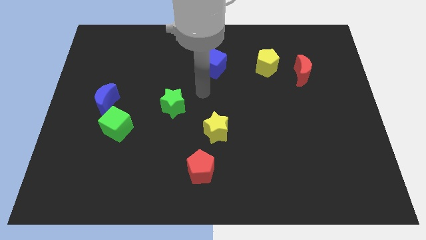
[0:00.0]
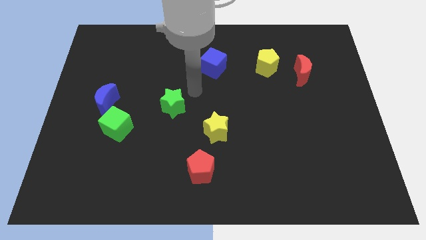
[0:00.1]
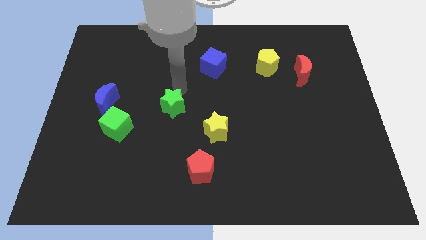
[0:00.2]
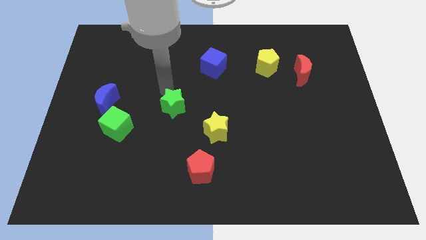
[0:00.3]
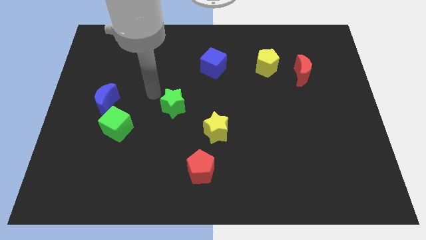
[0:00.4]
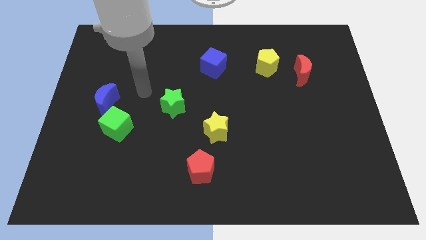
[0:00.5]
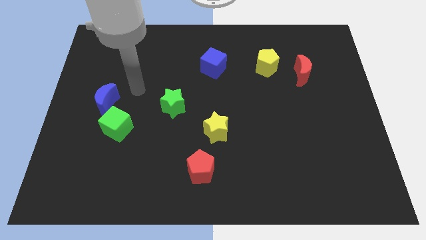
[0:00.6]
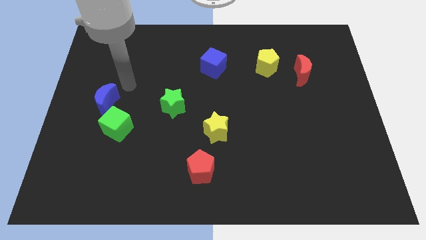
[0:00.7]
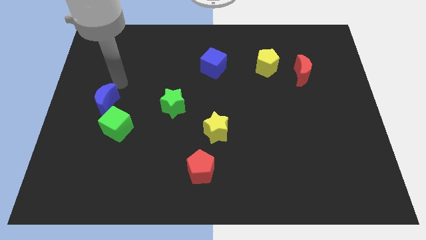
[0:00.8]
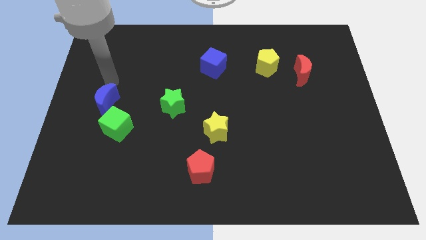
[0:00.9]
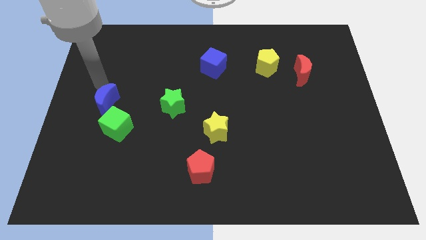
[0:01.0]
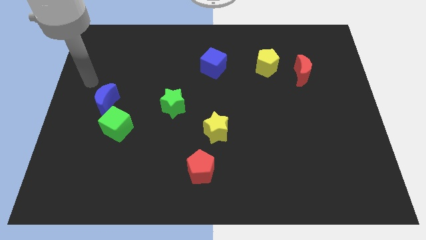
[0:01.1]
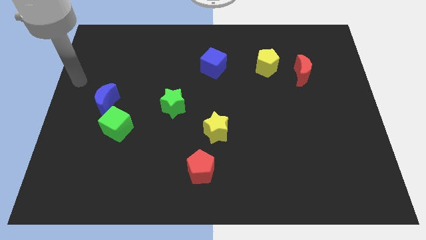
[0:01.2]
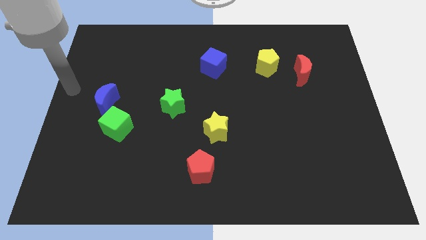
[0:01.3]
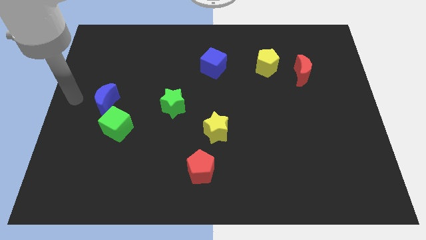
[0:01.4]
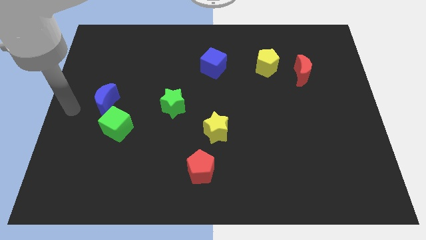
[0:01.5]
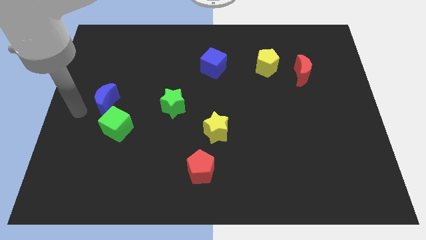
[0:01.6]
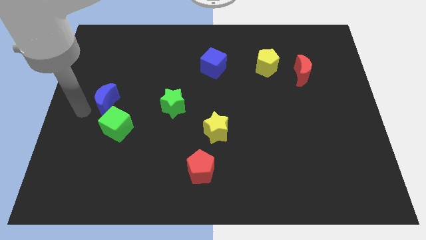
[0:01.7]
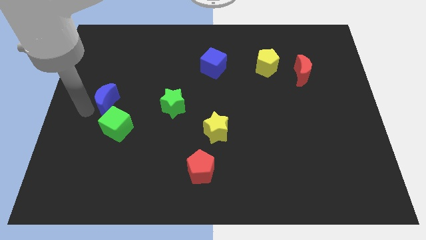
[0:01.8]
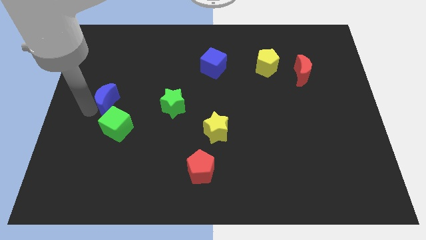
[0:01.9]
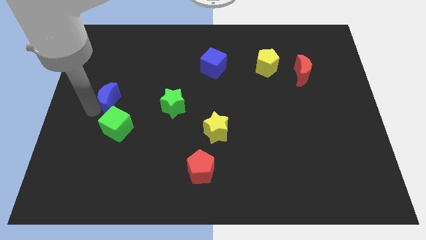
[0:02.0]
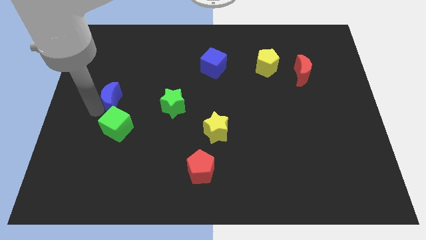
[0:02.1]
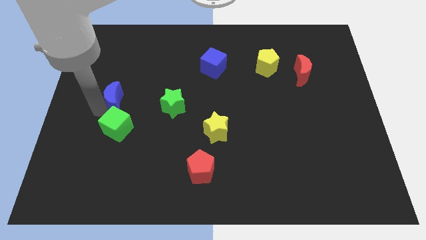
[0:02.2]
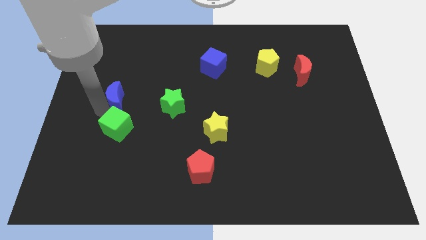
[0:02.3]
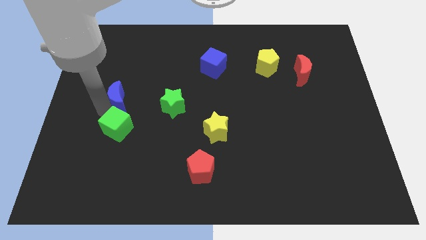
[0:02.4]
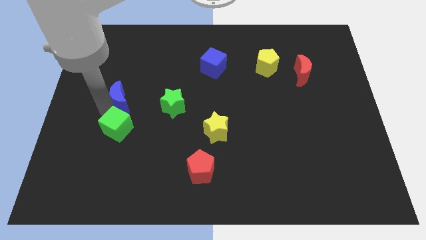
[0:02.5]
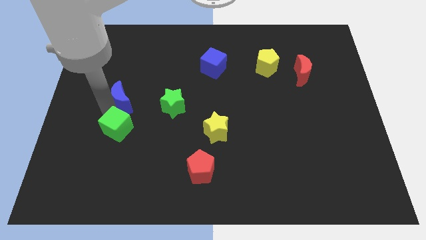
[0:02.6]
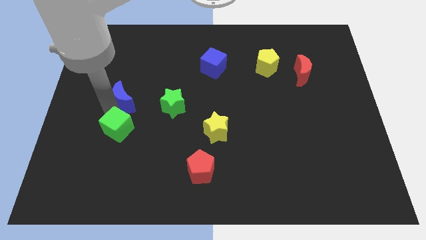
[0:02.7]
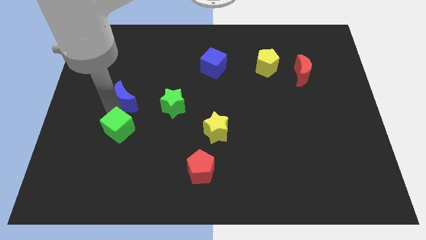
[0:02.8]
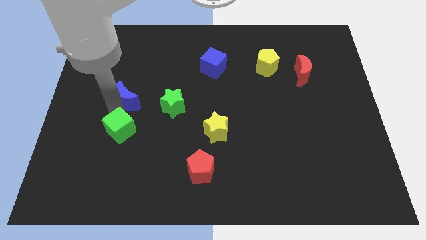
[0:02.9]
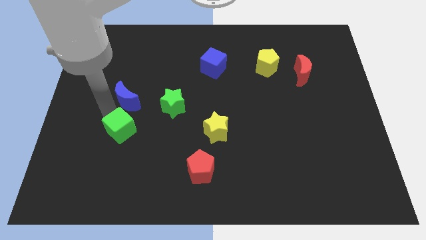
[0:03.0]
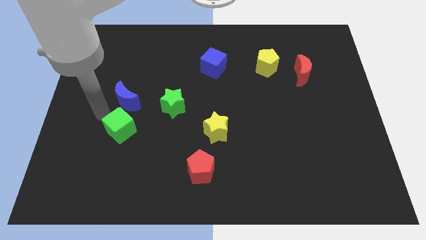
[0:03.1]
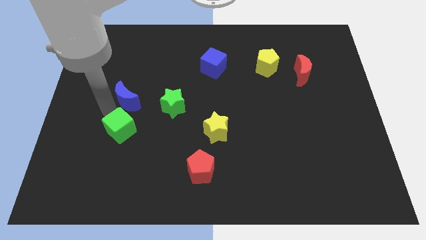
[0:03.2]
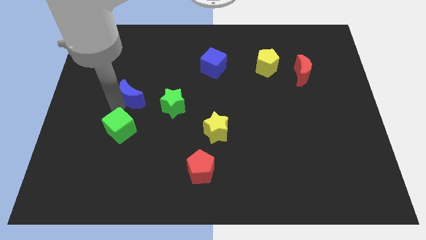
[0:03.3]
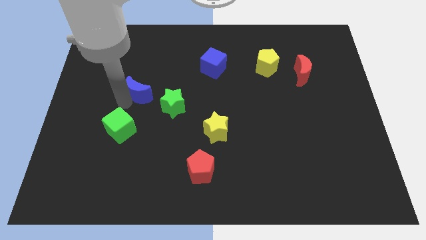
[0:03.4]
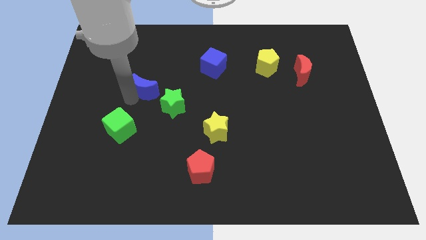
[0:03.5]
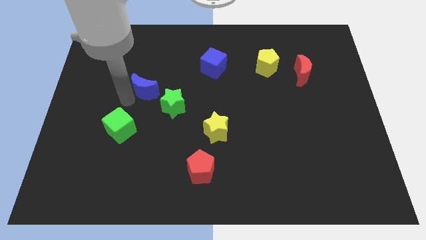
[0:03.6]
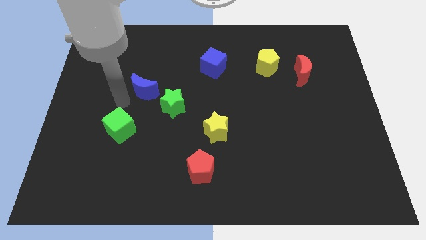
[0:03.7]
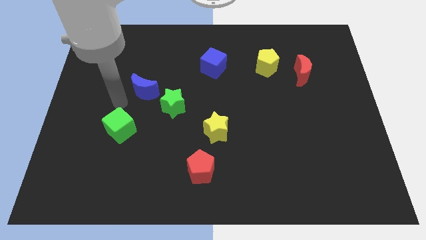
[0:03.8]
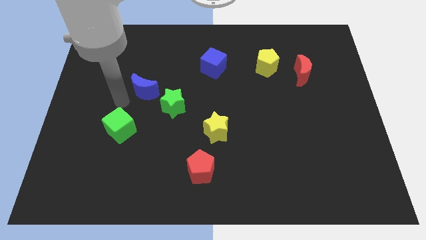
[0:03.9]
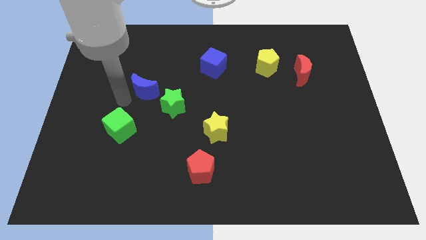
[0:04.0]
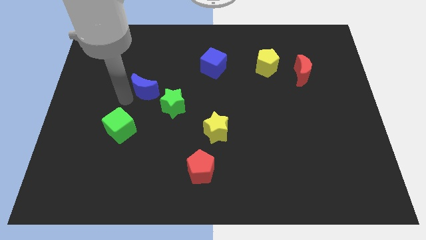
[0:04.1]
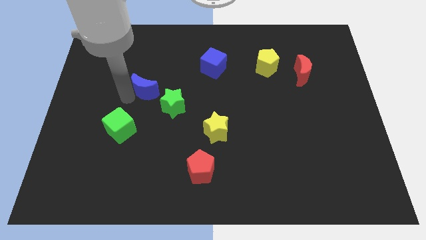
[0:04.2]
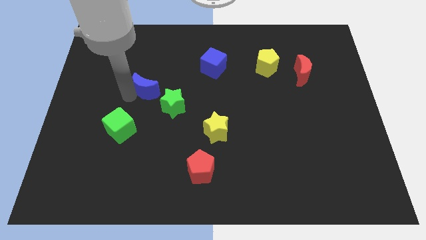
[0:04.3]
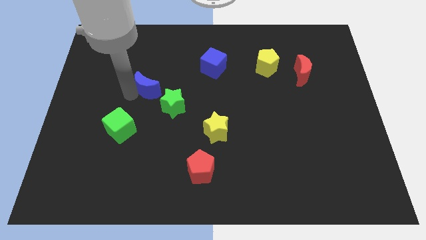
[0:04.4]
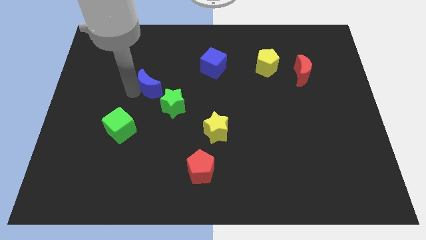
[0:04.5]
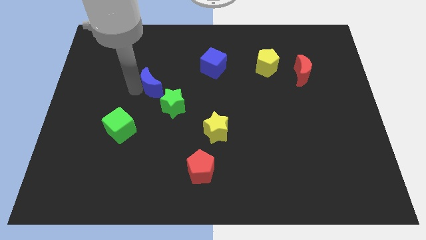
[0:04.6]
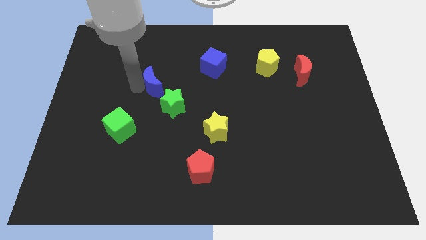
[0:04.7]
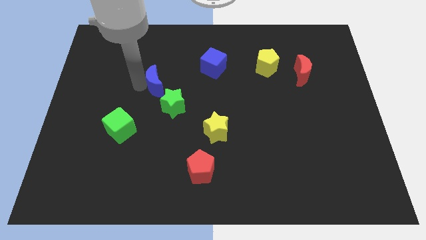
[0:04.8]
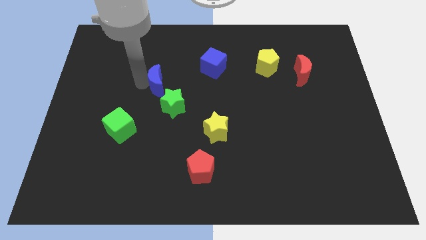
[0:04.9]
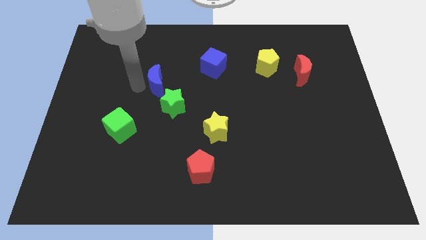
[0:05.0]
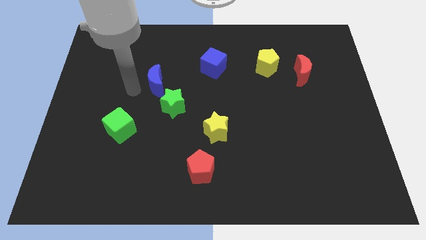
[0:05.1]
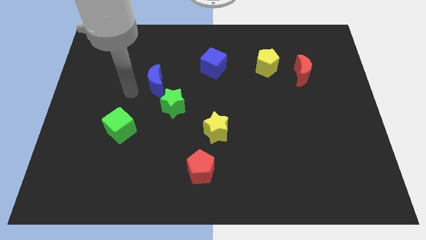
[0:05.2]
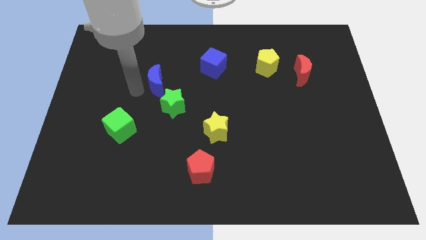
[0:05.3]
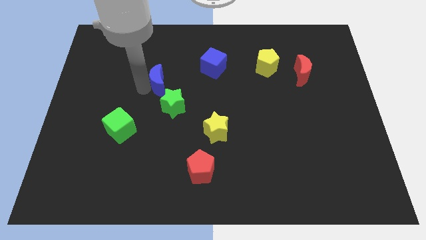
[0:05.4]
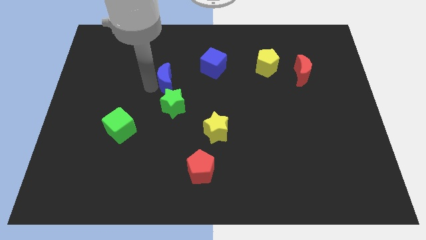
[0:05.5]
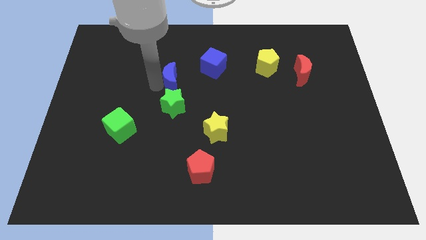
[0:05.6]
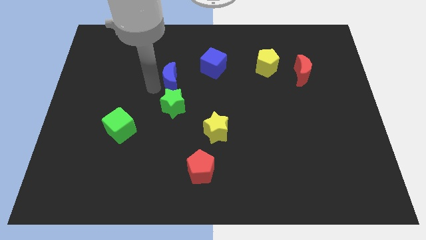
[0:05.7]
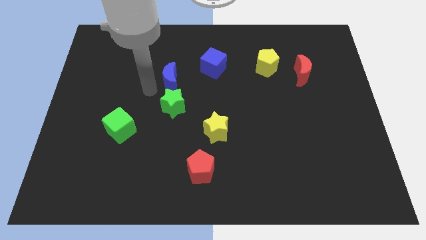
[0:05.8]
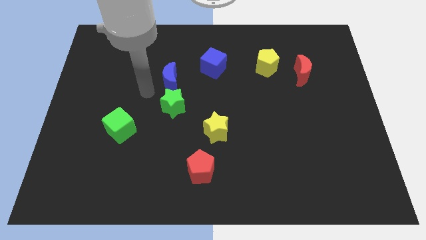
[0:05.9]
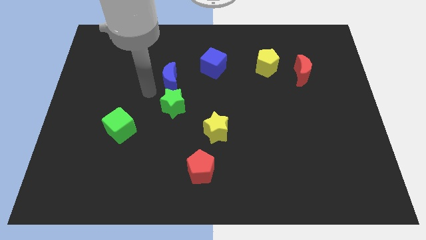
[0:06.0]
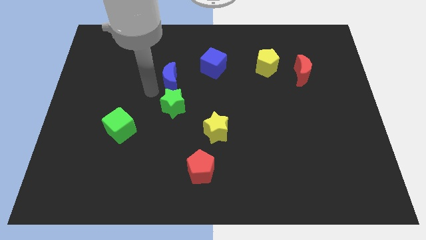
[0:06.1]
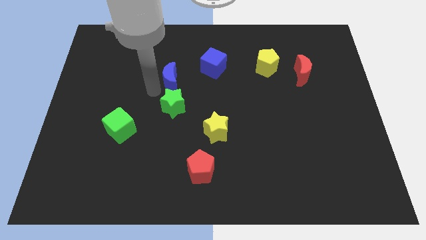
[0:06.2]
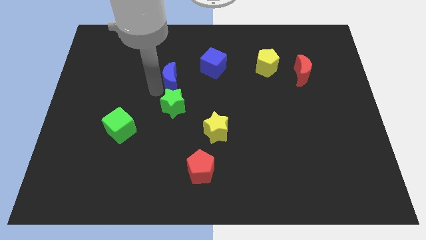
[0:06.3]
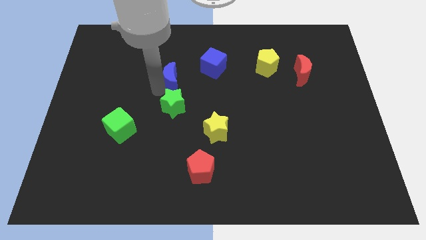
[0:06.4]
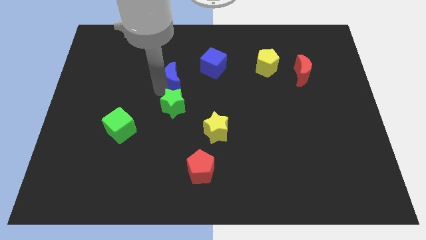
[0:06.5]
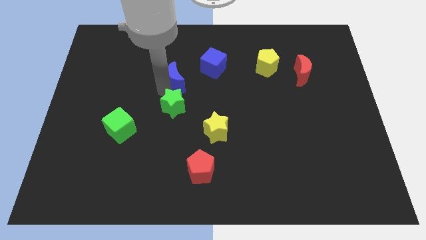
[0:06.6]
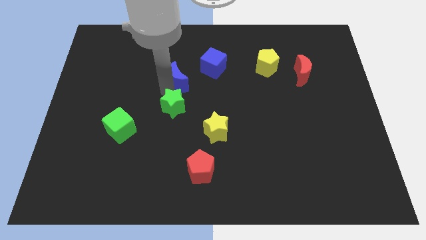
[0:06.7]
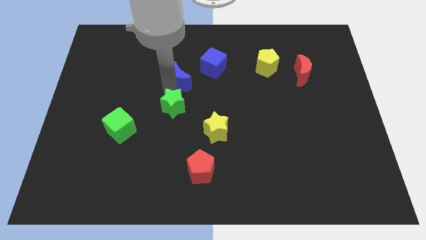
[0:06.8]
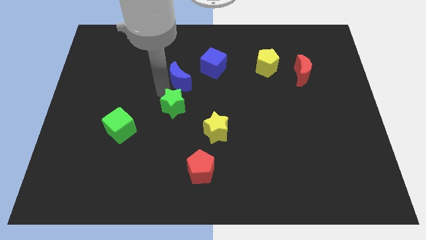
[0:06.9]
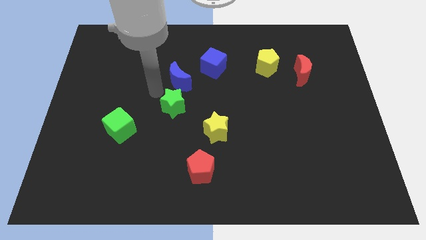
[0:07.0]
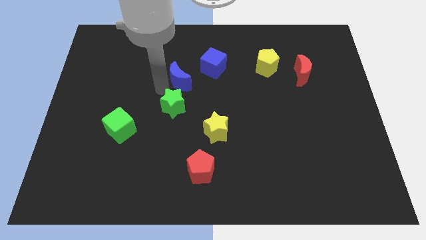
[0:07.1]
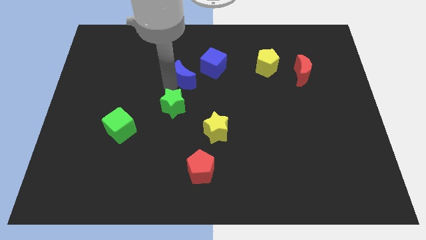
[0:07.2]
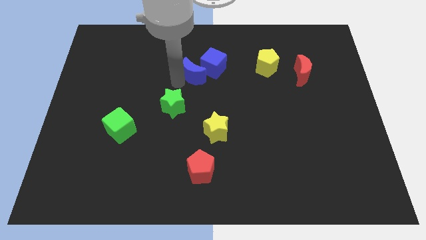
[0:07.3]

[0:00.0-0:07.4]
put the blue moon close to the blue cube
